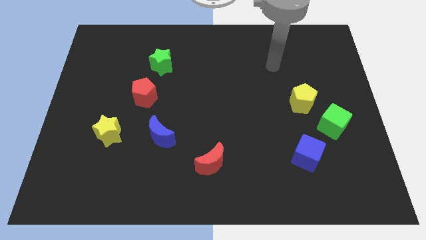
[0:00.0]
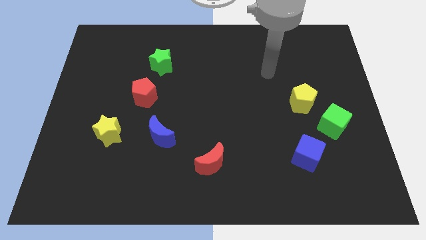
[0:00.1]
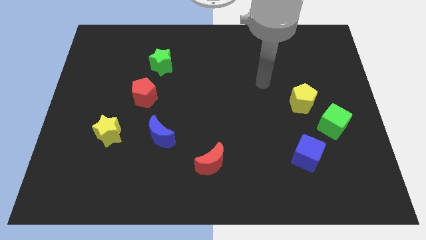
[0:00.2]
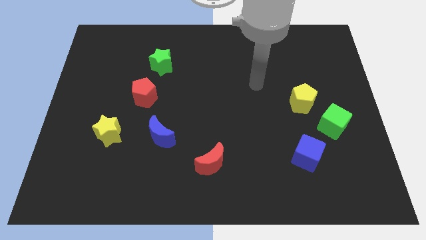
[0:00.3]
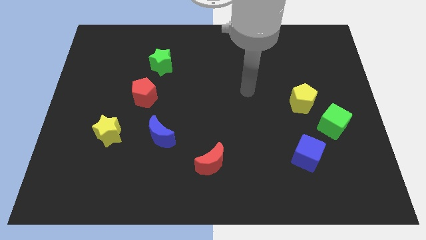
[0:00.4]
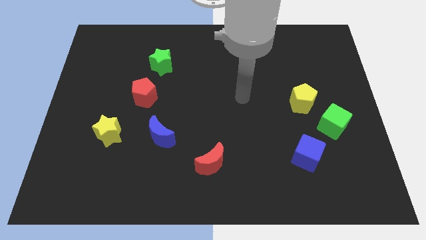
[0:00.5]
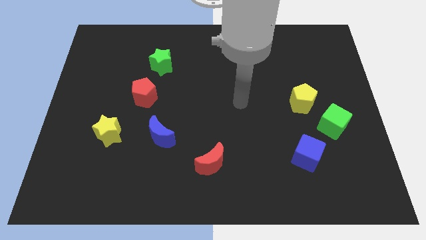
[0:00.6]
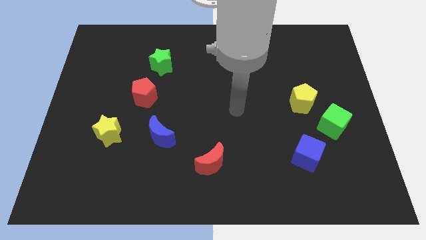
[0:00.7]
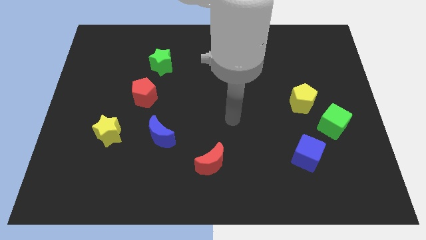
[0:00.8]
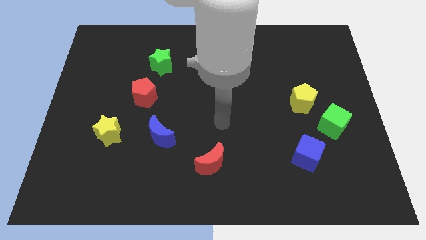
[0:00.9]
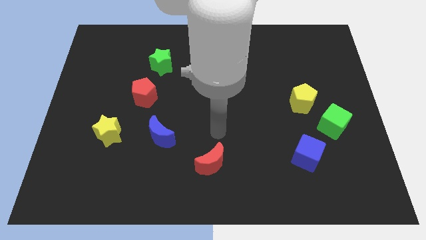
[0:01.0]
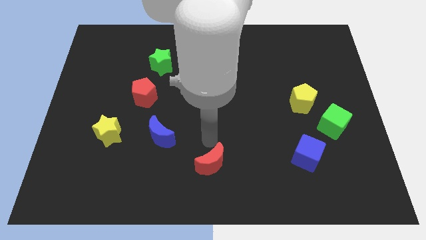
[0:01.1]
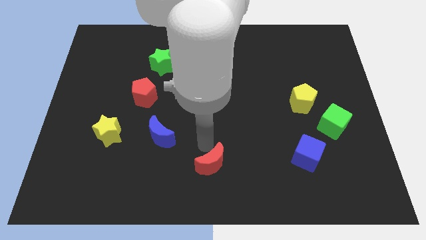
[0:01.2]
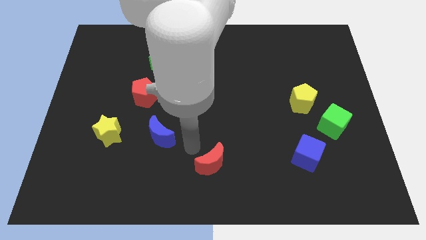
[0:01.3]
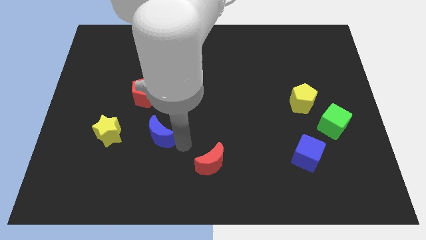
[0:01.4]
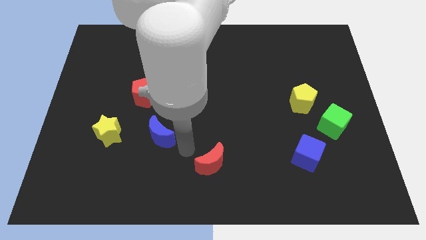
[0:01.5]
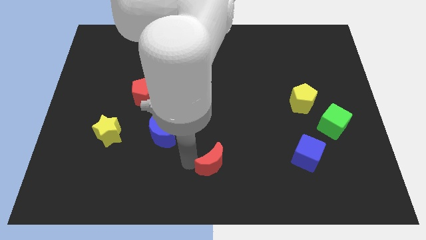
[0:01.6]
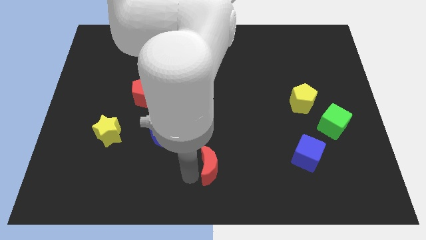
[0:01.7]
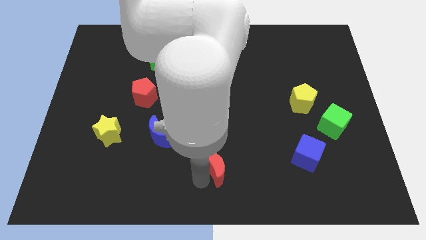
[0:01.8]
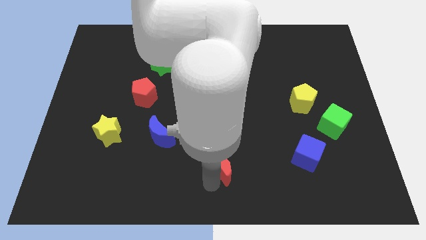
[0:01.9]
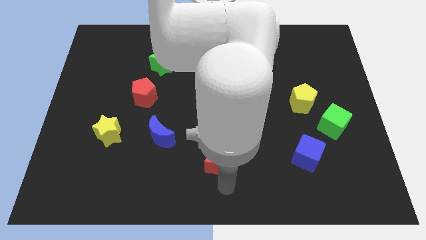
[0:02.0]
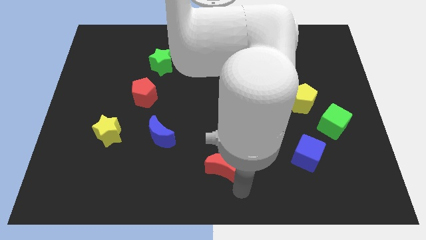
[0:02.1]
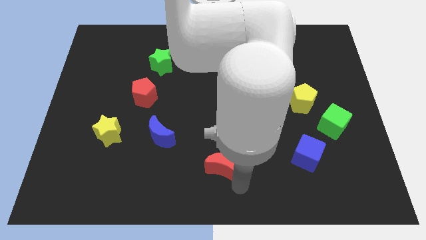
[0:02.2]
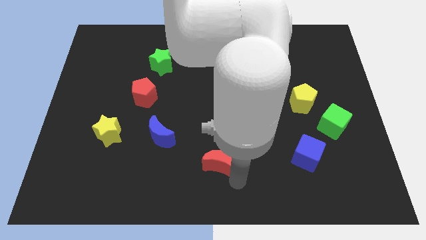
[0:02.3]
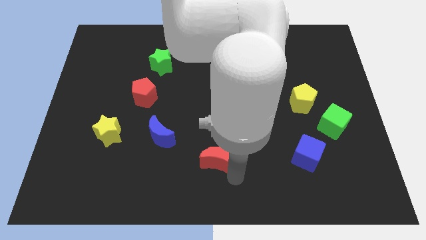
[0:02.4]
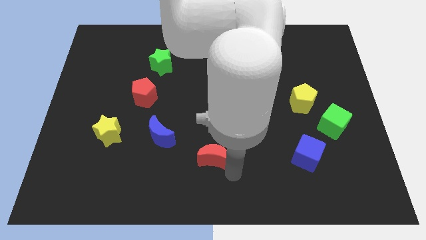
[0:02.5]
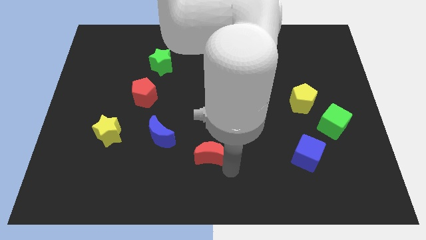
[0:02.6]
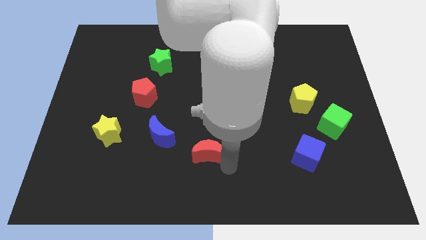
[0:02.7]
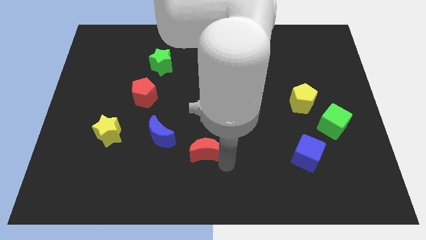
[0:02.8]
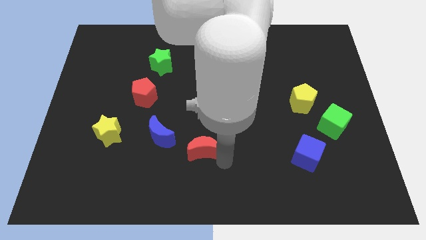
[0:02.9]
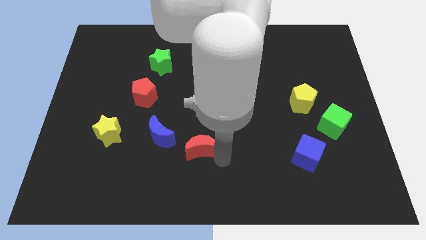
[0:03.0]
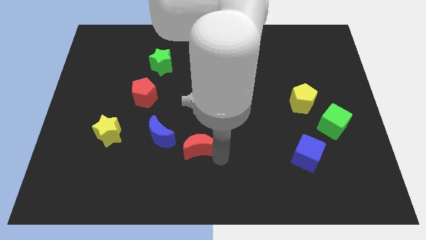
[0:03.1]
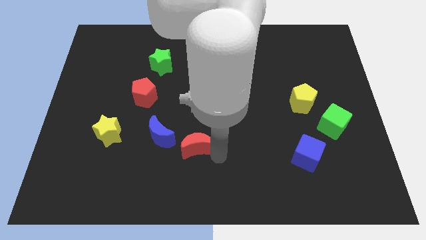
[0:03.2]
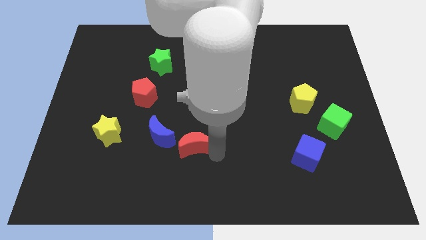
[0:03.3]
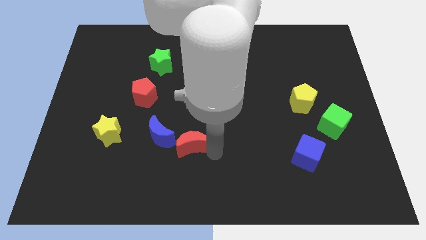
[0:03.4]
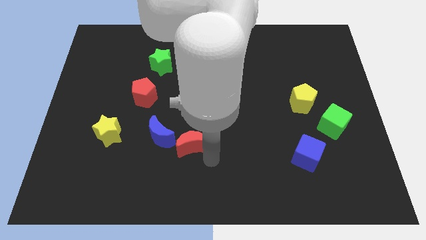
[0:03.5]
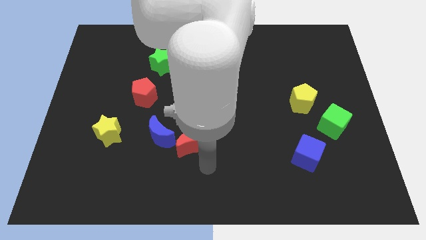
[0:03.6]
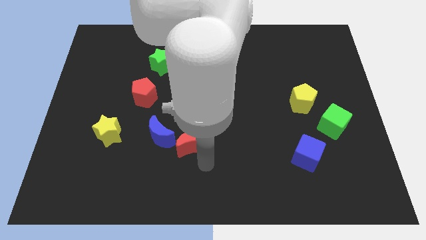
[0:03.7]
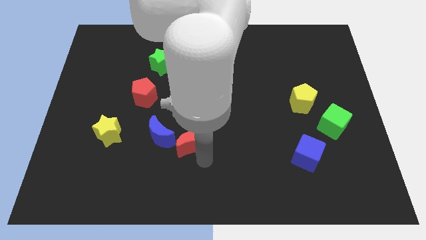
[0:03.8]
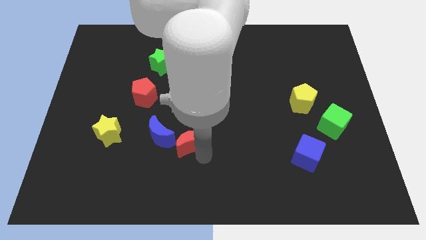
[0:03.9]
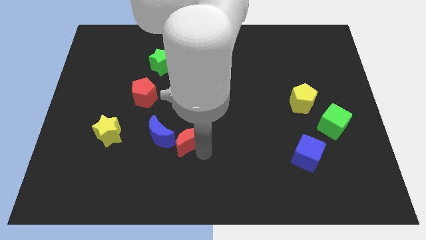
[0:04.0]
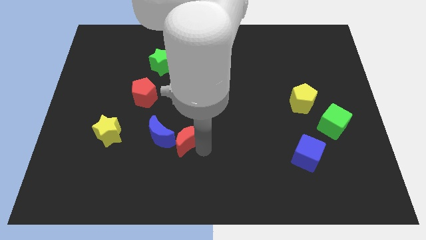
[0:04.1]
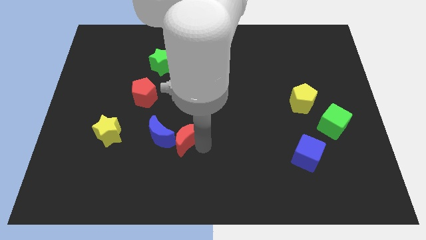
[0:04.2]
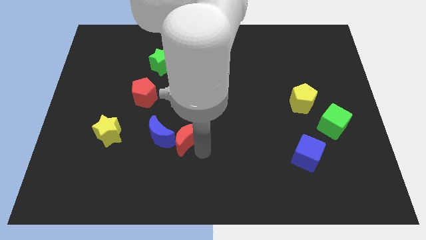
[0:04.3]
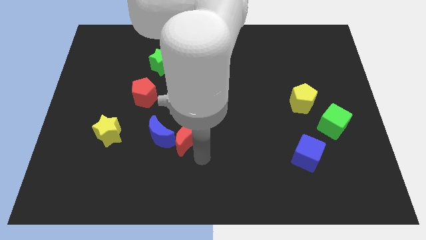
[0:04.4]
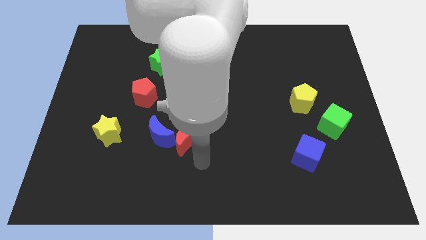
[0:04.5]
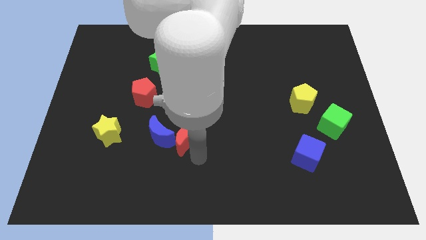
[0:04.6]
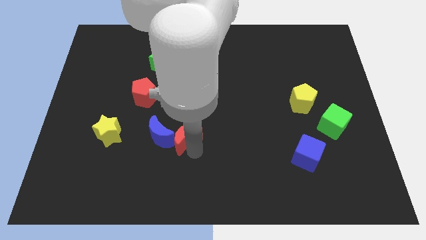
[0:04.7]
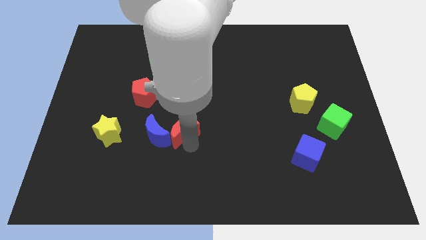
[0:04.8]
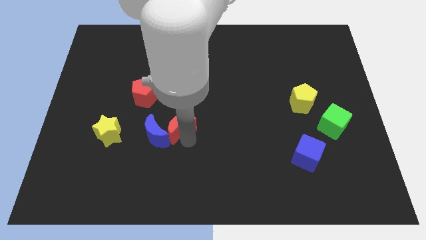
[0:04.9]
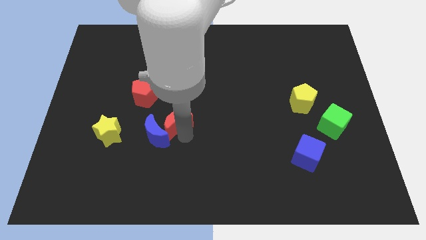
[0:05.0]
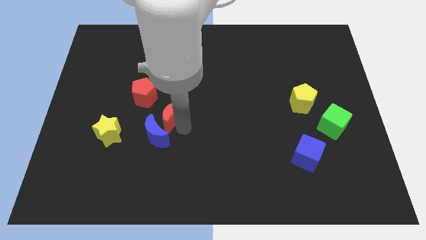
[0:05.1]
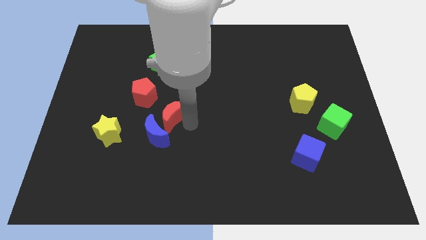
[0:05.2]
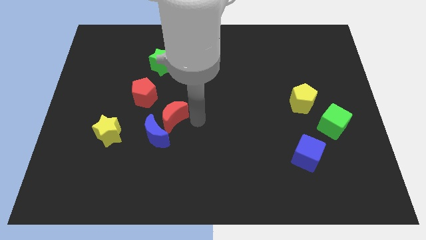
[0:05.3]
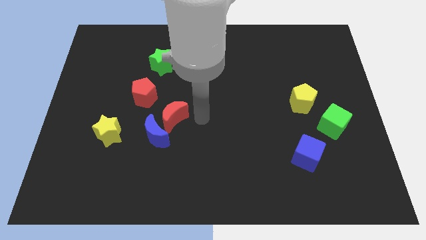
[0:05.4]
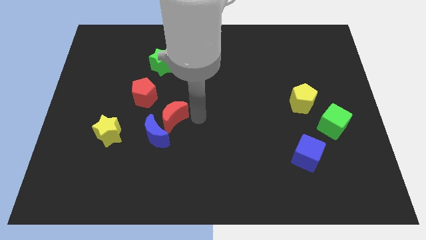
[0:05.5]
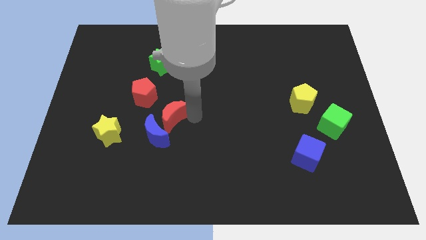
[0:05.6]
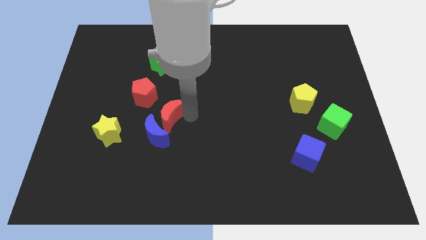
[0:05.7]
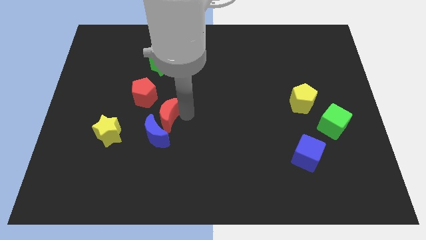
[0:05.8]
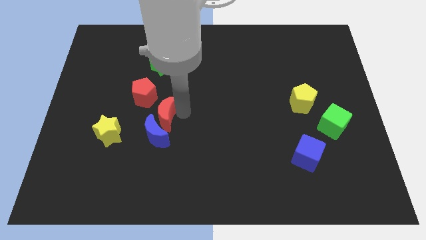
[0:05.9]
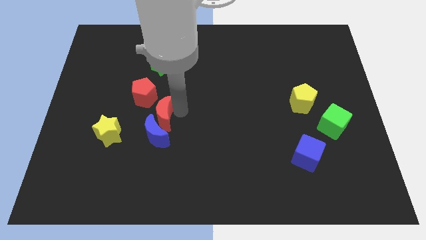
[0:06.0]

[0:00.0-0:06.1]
slide the red moon diagonally up and to the left of the blue moon

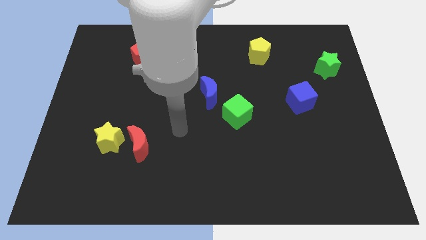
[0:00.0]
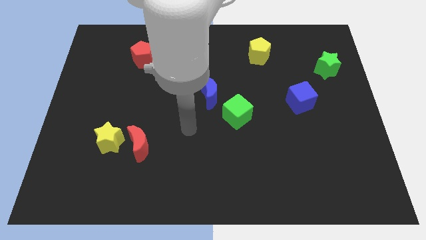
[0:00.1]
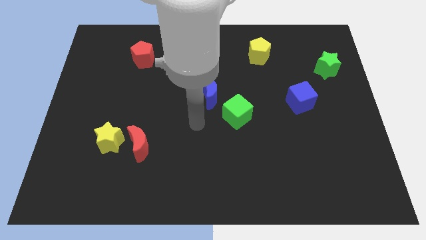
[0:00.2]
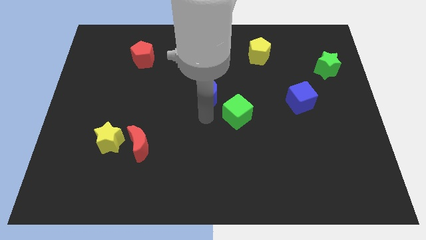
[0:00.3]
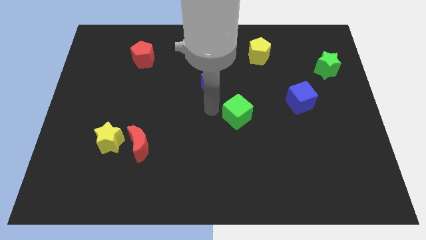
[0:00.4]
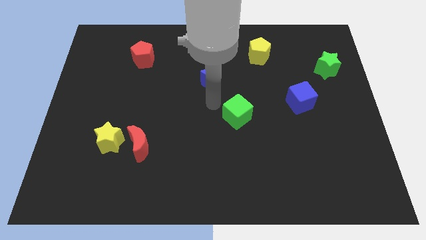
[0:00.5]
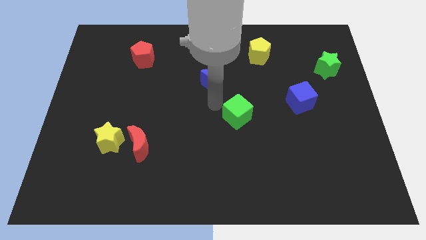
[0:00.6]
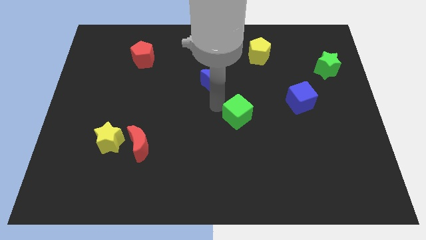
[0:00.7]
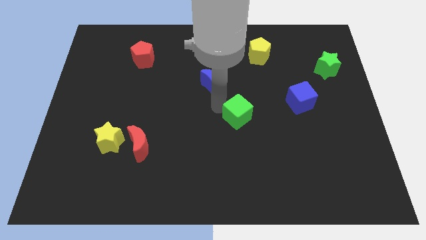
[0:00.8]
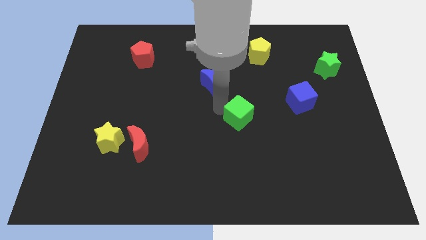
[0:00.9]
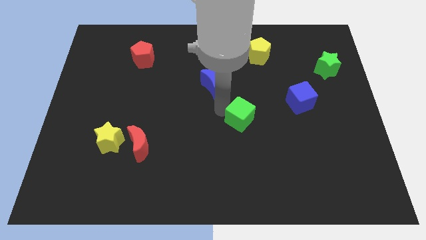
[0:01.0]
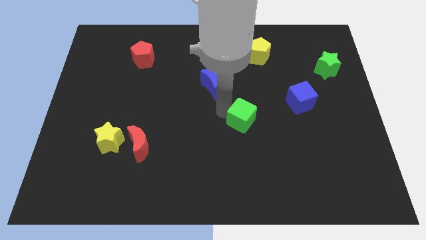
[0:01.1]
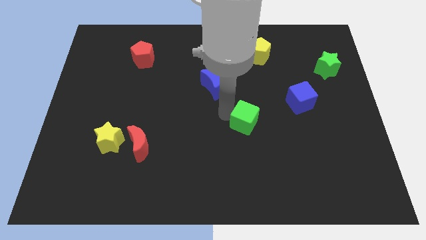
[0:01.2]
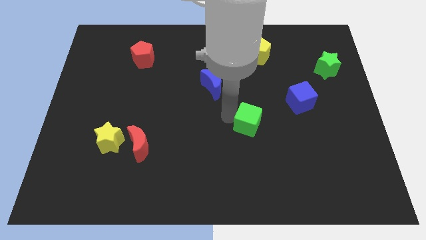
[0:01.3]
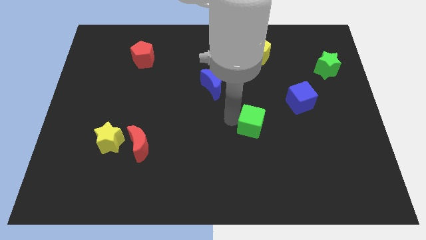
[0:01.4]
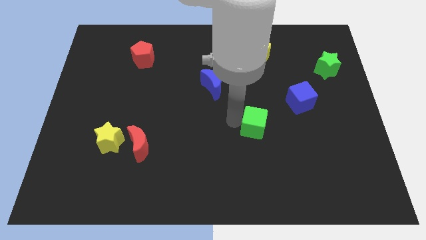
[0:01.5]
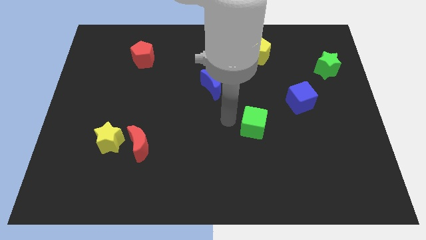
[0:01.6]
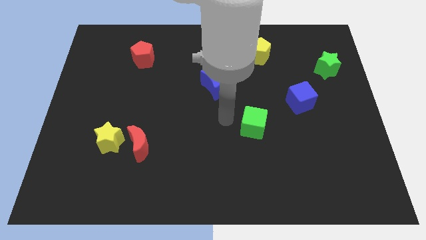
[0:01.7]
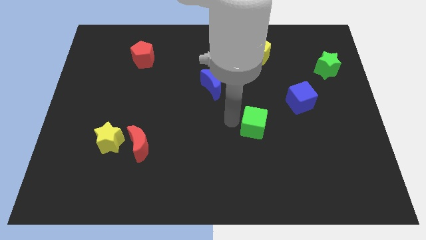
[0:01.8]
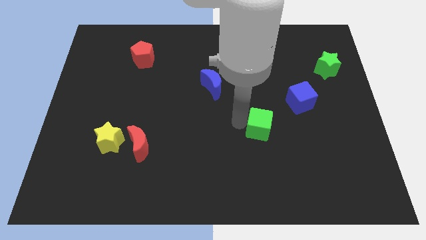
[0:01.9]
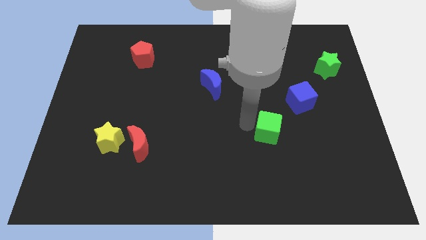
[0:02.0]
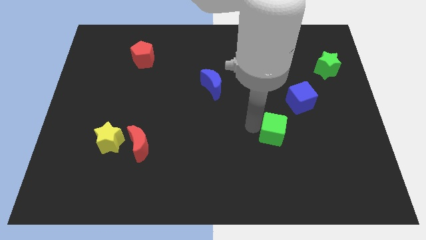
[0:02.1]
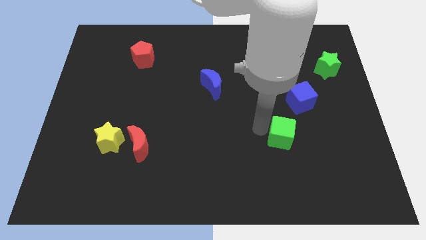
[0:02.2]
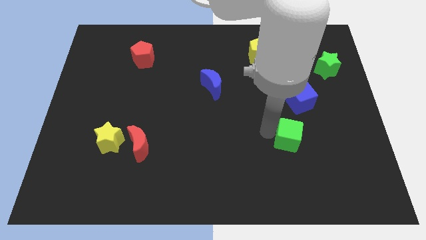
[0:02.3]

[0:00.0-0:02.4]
slide the green cube to the bottom side of the blue cube
